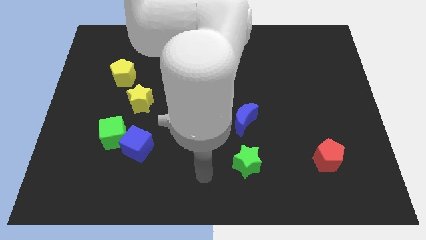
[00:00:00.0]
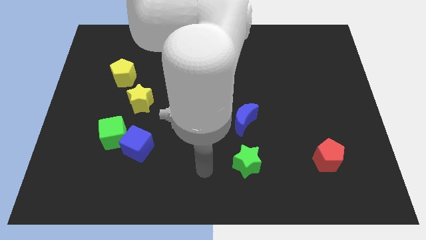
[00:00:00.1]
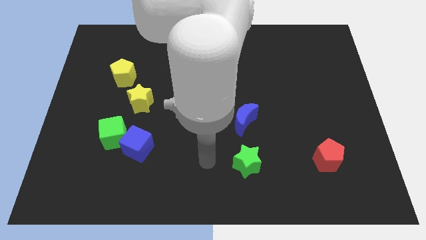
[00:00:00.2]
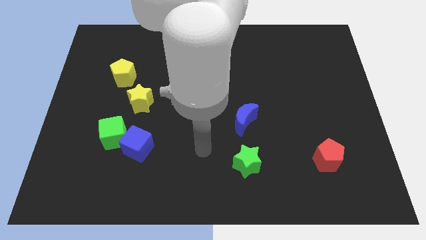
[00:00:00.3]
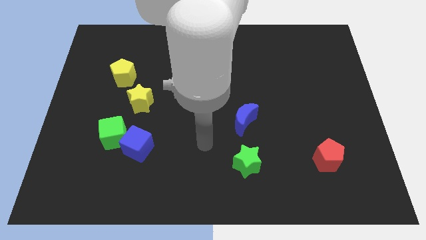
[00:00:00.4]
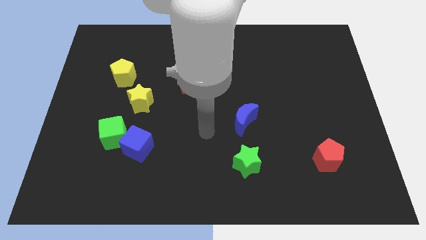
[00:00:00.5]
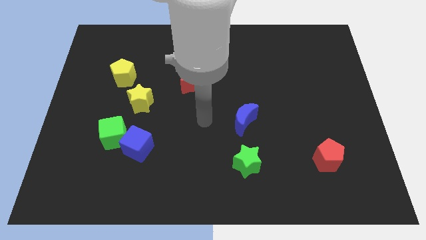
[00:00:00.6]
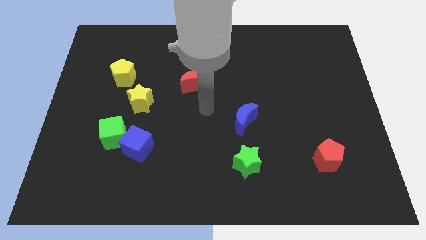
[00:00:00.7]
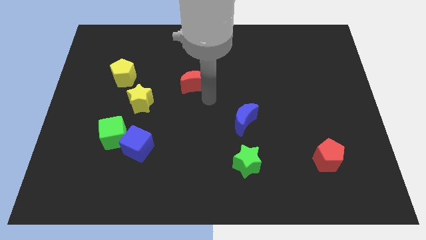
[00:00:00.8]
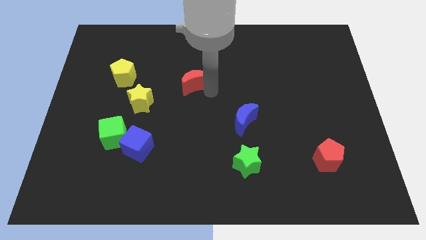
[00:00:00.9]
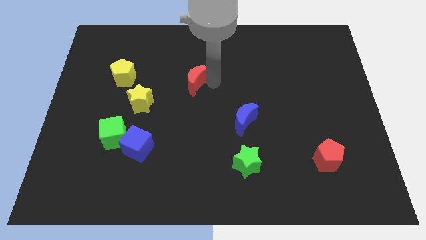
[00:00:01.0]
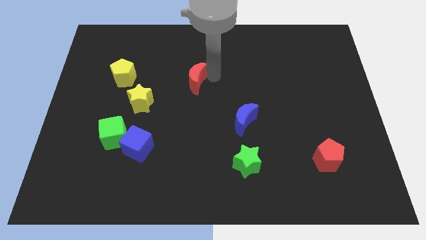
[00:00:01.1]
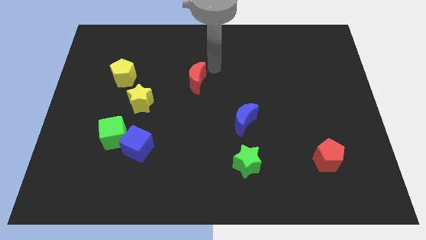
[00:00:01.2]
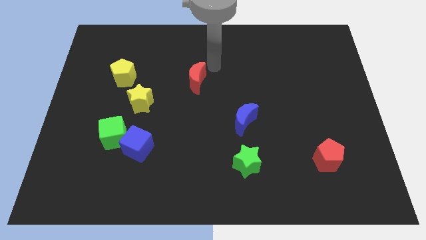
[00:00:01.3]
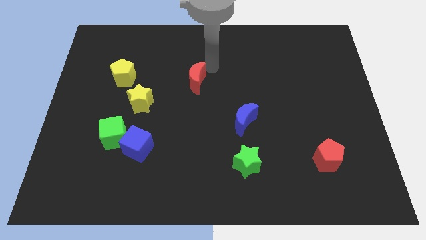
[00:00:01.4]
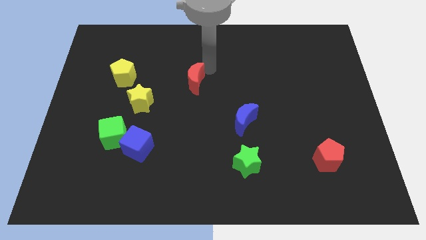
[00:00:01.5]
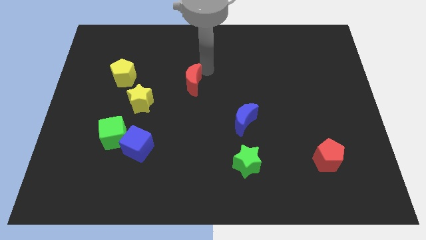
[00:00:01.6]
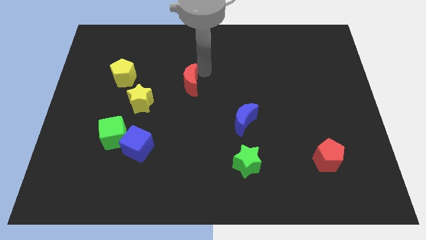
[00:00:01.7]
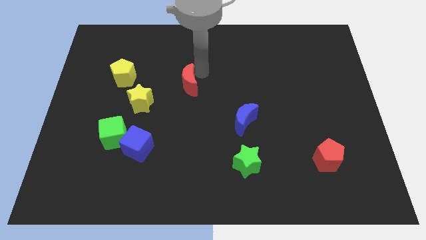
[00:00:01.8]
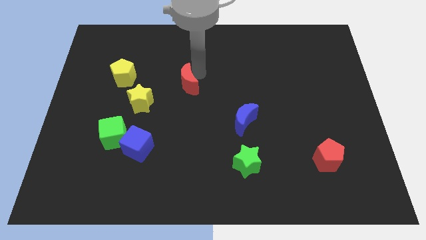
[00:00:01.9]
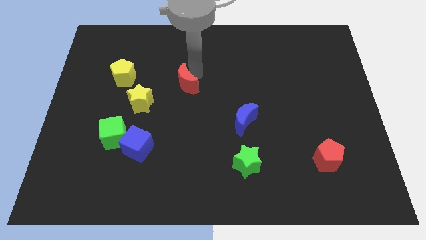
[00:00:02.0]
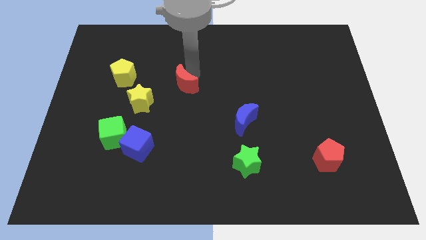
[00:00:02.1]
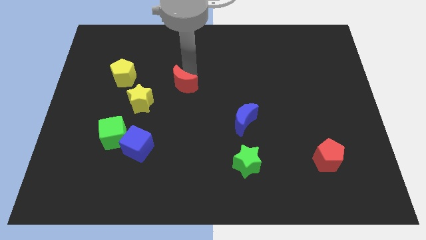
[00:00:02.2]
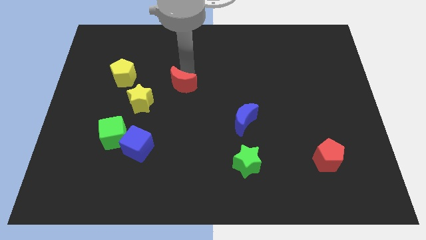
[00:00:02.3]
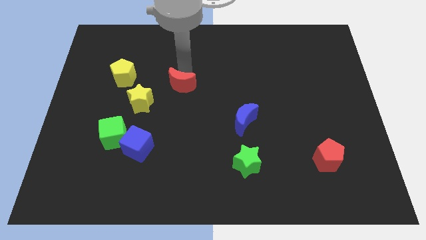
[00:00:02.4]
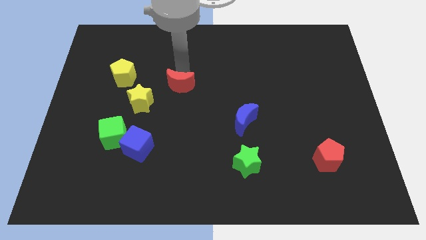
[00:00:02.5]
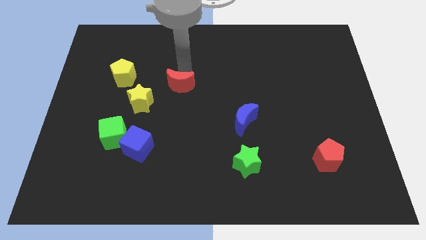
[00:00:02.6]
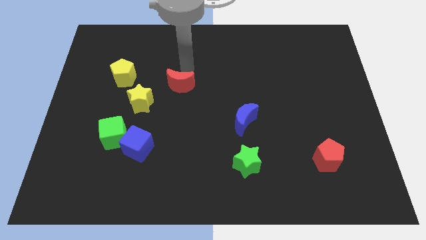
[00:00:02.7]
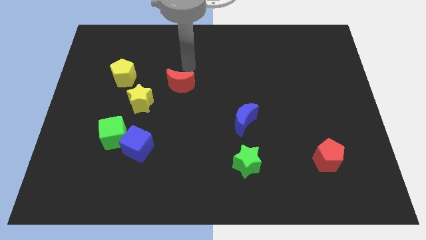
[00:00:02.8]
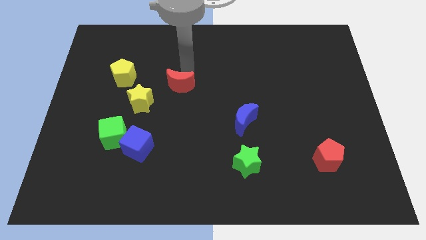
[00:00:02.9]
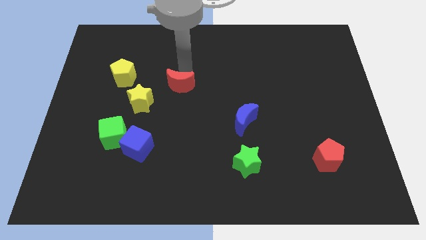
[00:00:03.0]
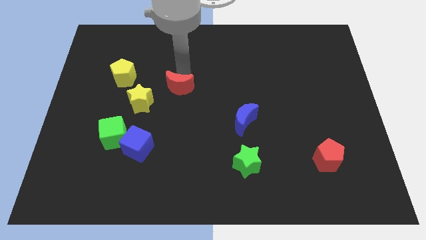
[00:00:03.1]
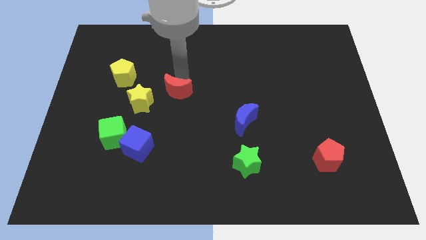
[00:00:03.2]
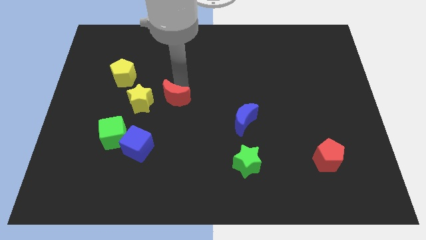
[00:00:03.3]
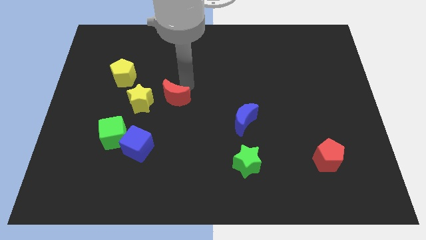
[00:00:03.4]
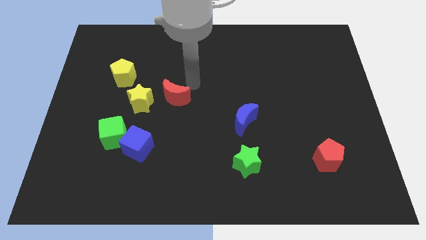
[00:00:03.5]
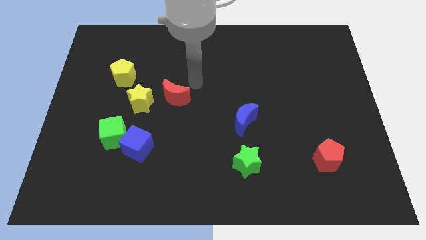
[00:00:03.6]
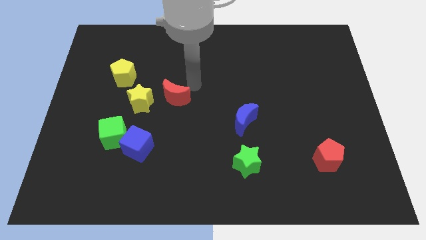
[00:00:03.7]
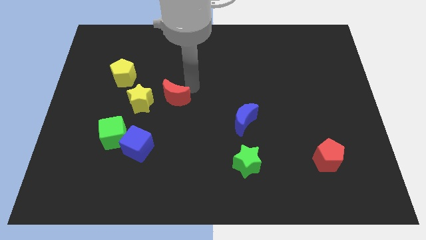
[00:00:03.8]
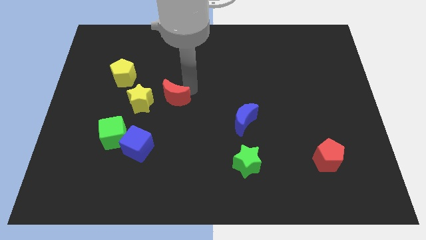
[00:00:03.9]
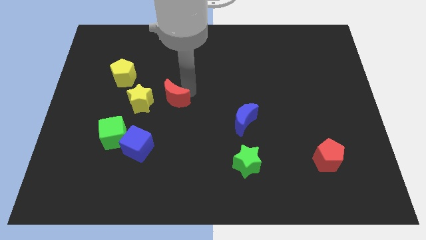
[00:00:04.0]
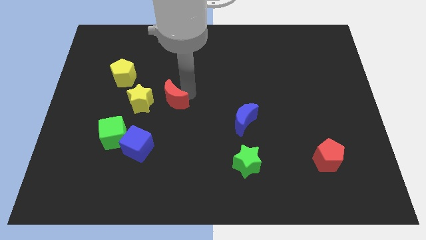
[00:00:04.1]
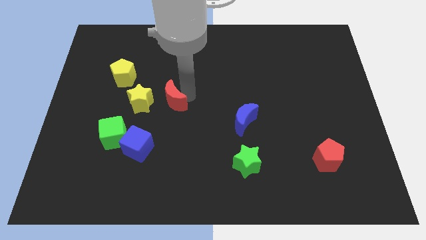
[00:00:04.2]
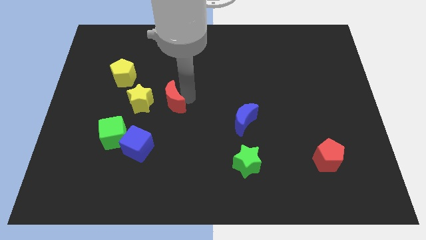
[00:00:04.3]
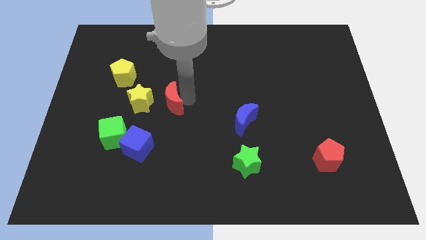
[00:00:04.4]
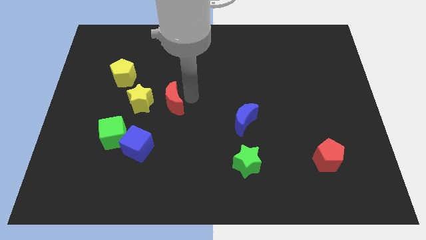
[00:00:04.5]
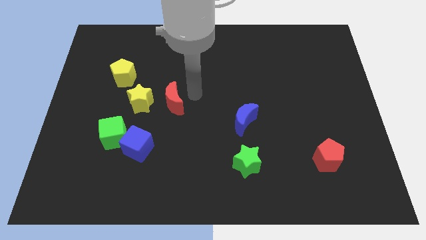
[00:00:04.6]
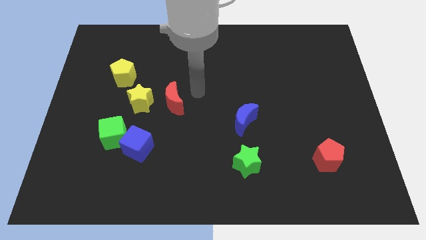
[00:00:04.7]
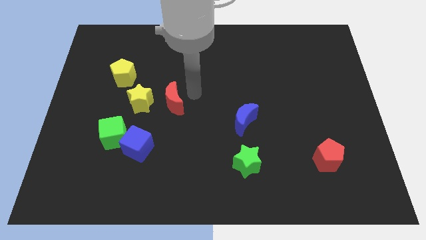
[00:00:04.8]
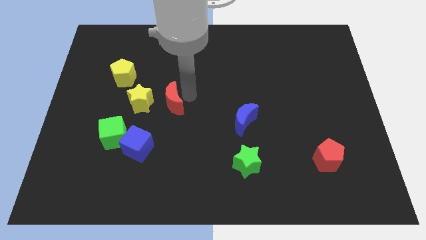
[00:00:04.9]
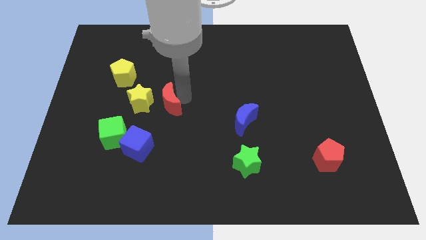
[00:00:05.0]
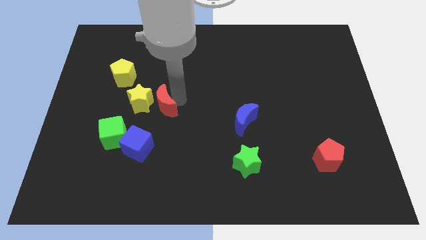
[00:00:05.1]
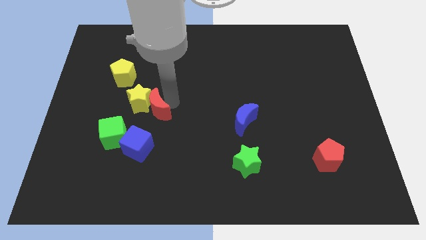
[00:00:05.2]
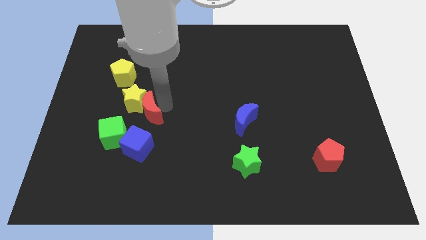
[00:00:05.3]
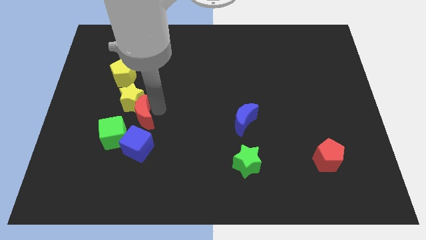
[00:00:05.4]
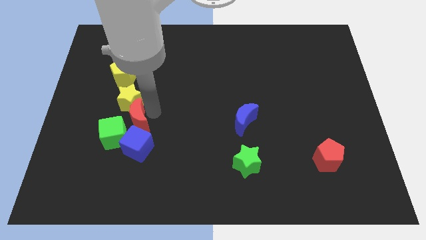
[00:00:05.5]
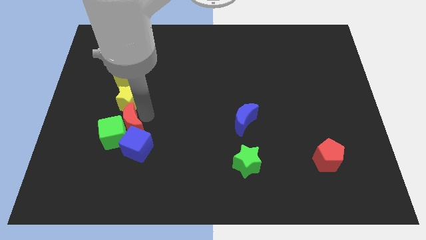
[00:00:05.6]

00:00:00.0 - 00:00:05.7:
move the red moon towards the green cube
